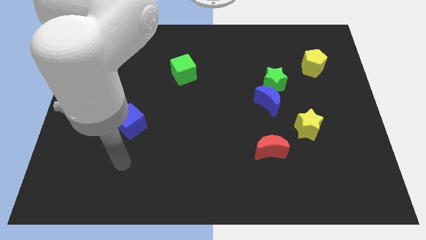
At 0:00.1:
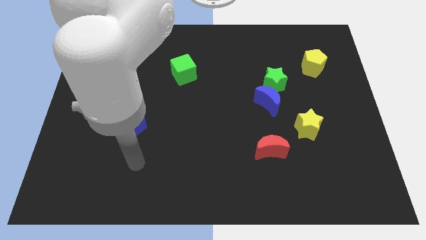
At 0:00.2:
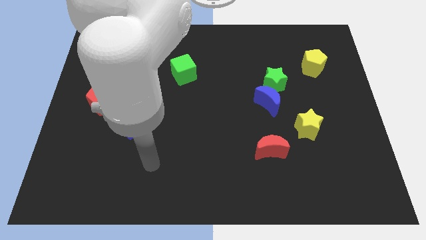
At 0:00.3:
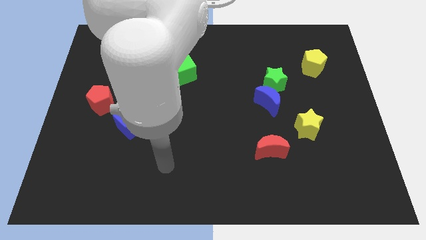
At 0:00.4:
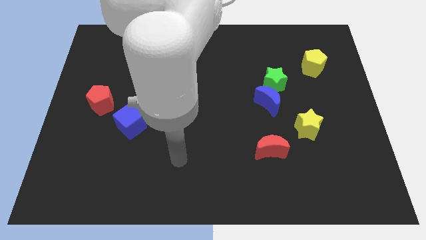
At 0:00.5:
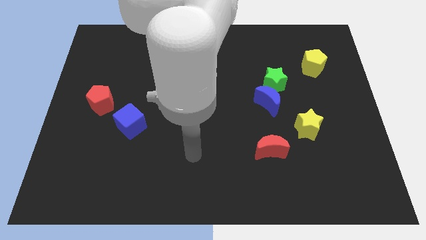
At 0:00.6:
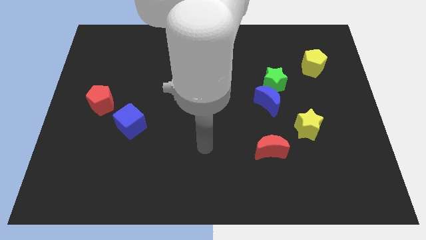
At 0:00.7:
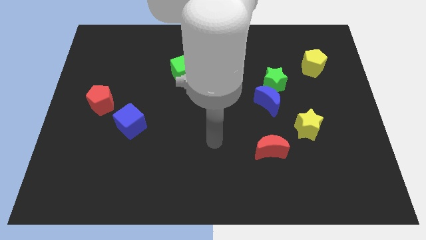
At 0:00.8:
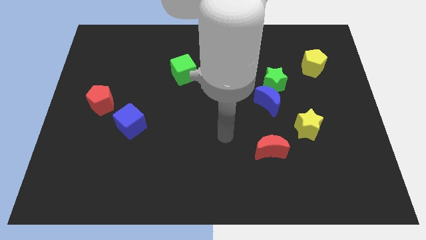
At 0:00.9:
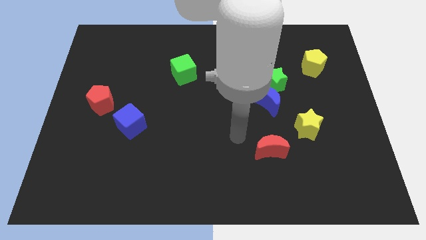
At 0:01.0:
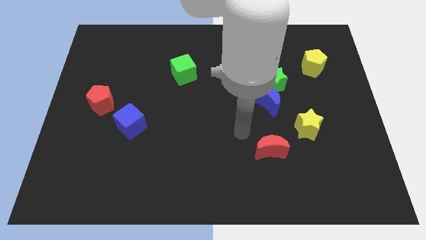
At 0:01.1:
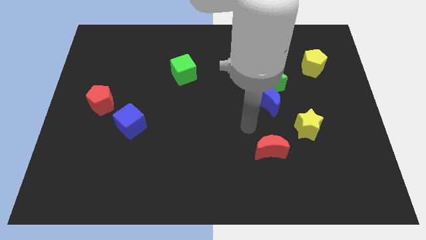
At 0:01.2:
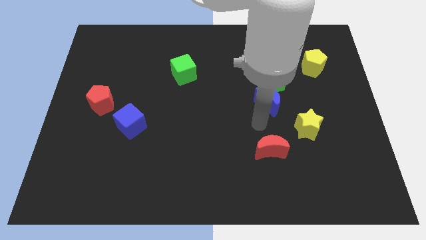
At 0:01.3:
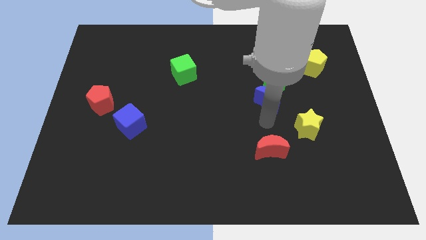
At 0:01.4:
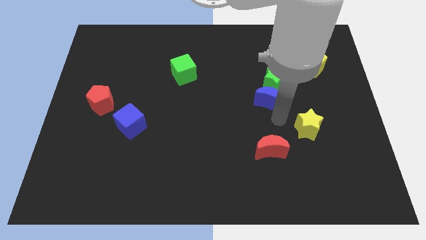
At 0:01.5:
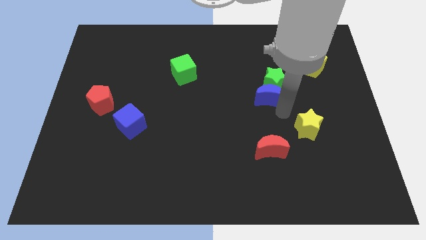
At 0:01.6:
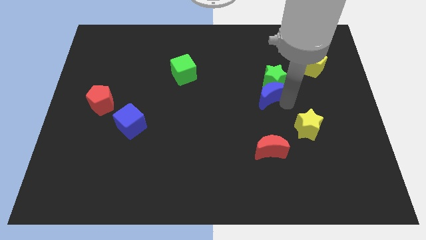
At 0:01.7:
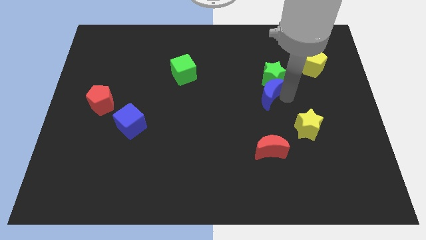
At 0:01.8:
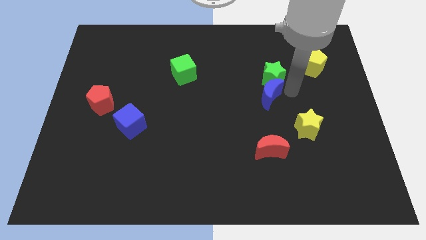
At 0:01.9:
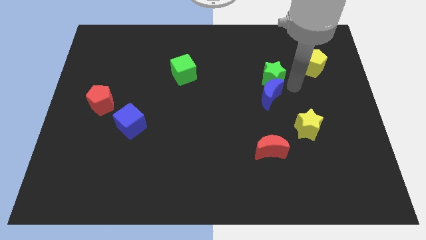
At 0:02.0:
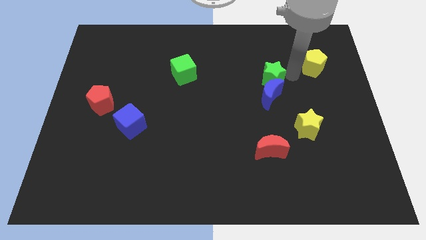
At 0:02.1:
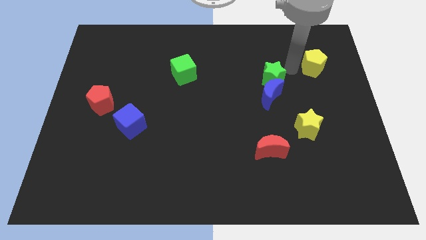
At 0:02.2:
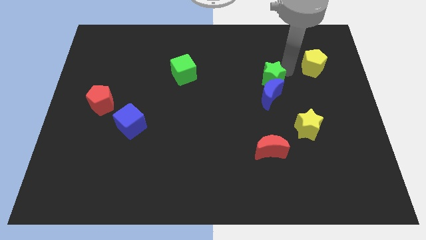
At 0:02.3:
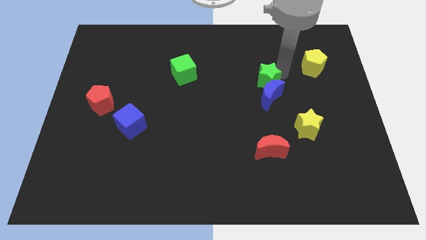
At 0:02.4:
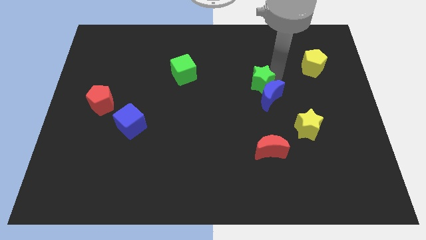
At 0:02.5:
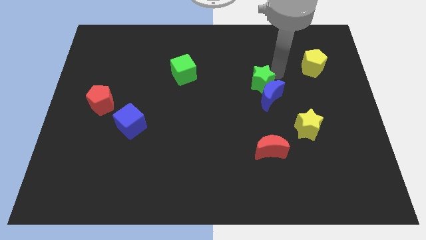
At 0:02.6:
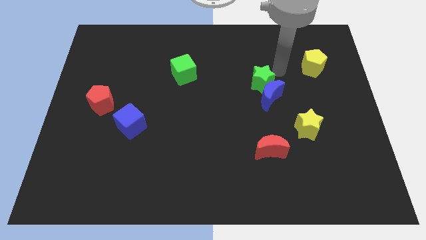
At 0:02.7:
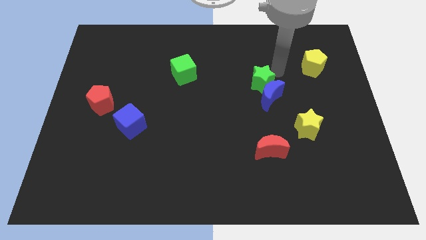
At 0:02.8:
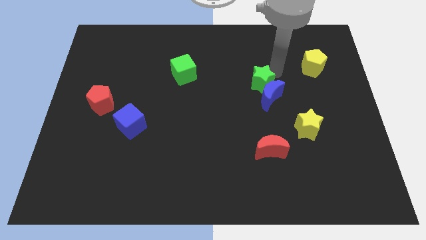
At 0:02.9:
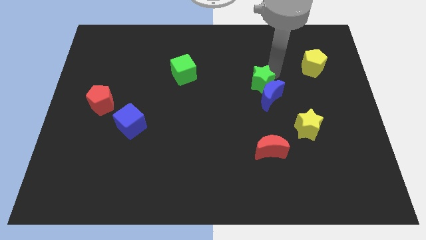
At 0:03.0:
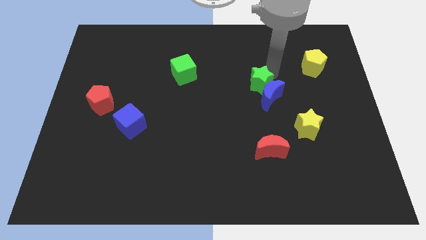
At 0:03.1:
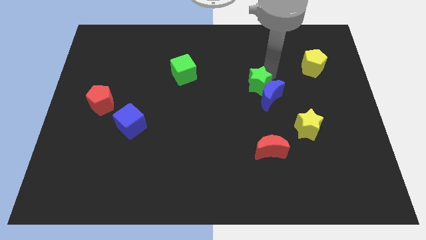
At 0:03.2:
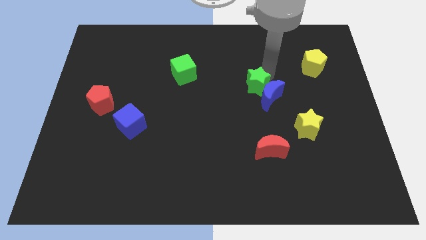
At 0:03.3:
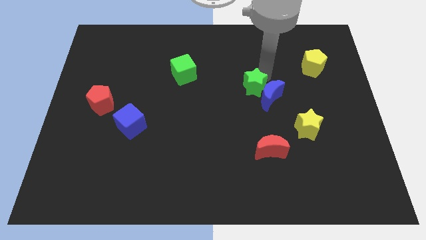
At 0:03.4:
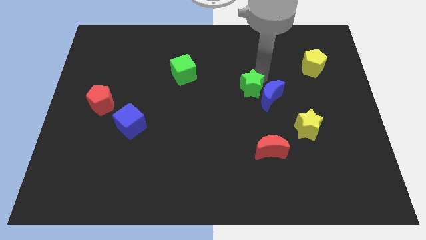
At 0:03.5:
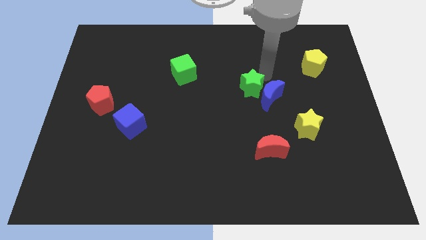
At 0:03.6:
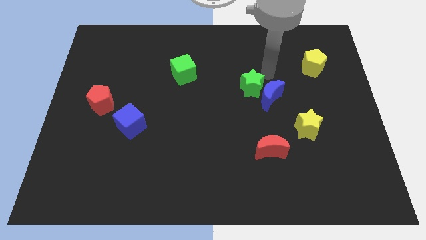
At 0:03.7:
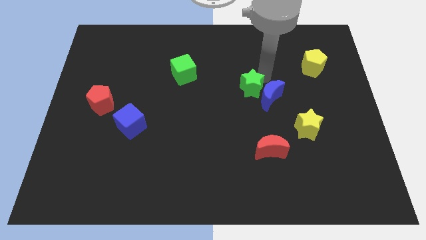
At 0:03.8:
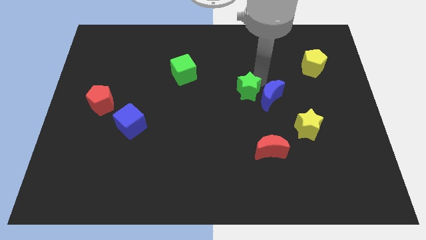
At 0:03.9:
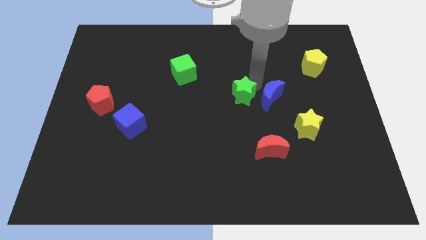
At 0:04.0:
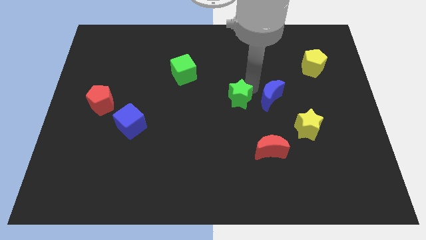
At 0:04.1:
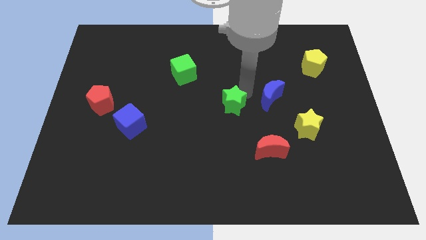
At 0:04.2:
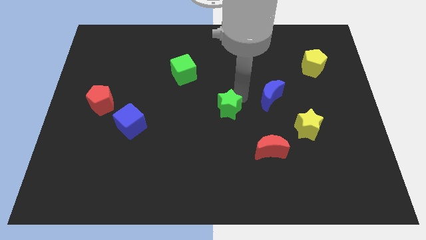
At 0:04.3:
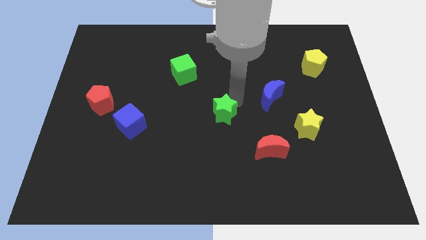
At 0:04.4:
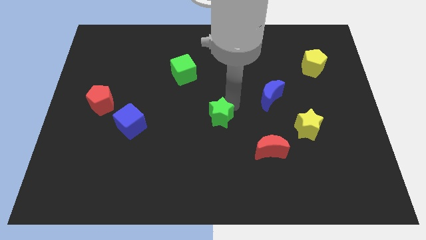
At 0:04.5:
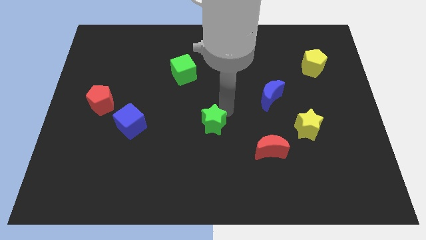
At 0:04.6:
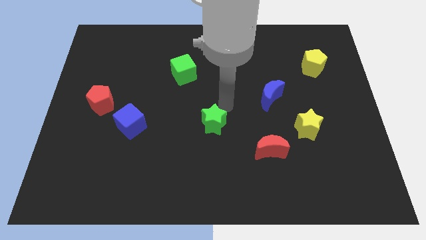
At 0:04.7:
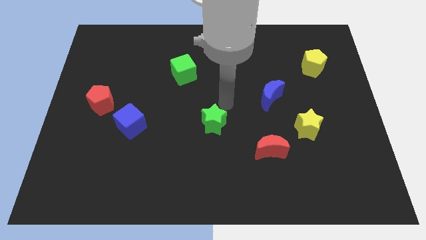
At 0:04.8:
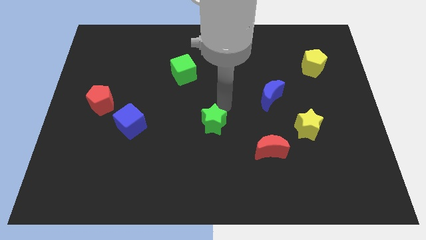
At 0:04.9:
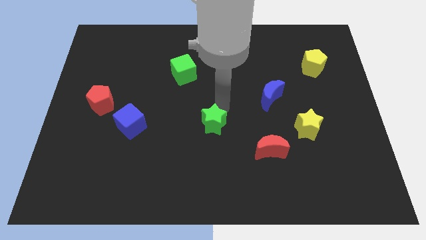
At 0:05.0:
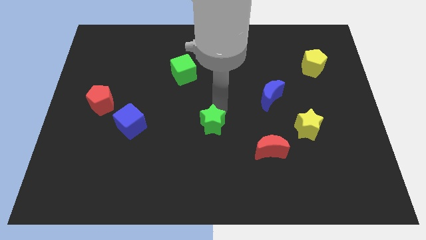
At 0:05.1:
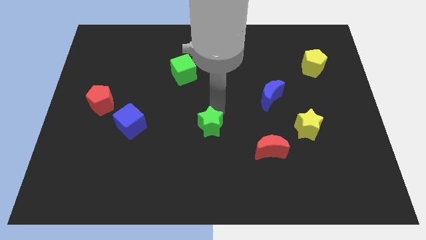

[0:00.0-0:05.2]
slide the green star down and left

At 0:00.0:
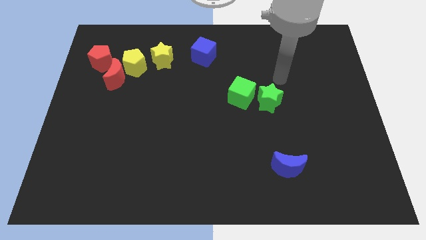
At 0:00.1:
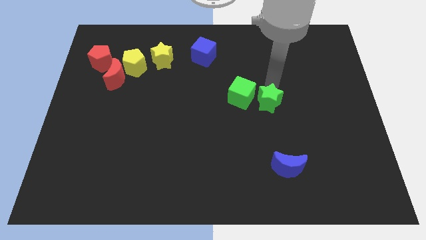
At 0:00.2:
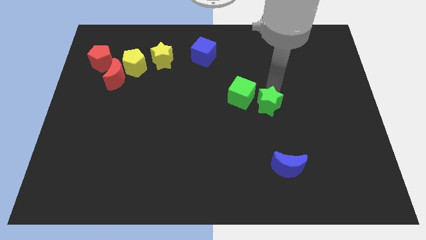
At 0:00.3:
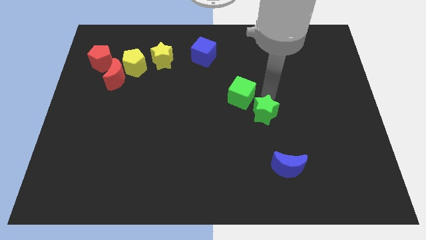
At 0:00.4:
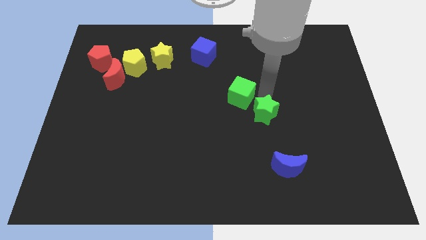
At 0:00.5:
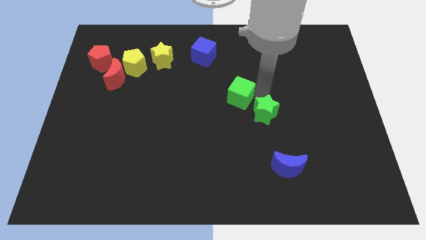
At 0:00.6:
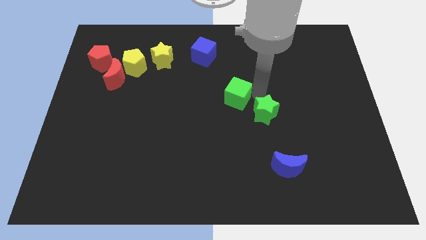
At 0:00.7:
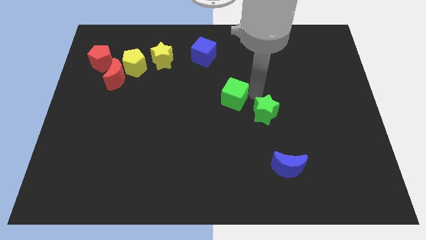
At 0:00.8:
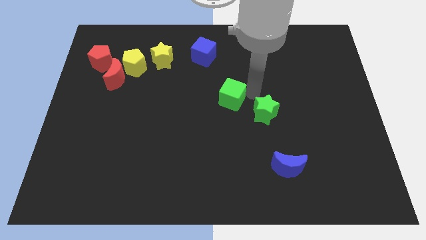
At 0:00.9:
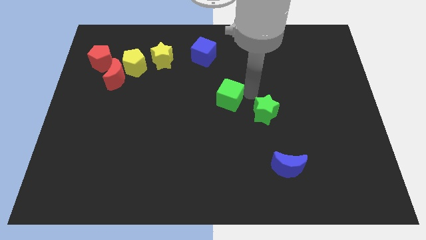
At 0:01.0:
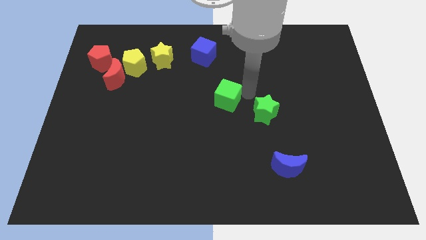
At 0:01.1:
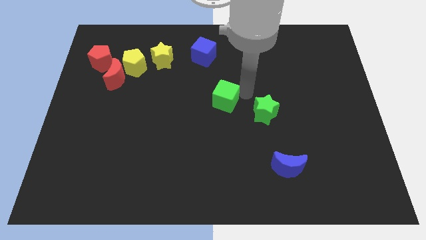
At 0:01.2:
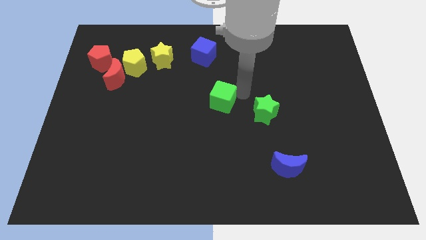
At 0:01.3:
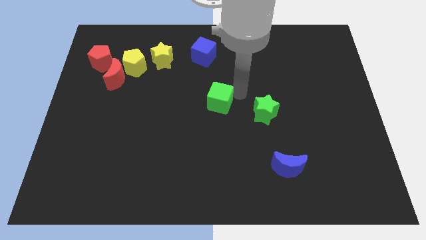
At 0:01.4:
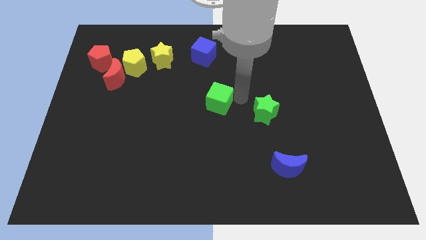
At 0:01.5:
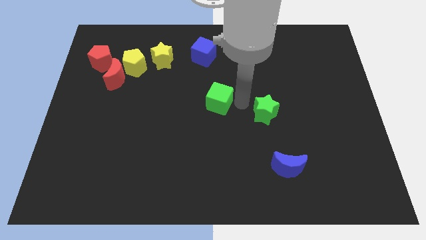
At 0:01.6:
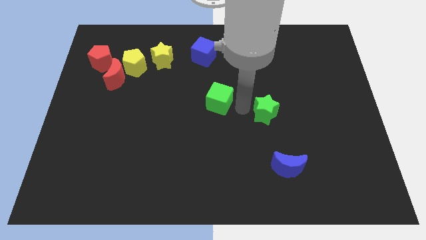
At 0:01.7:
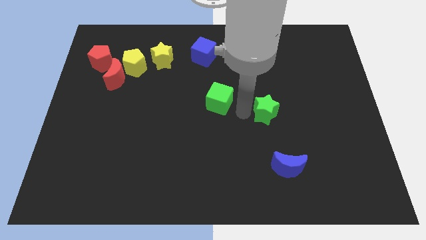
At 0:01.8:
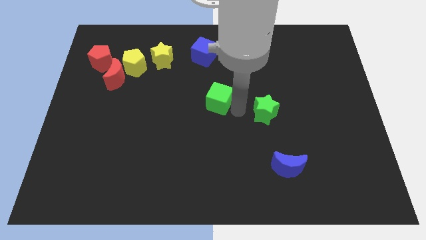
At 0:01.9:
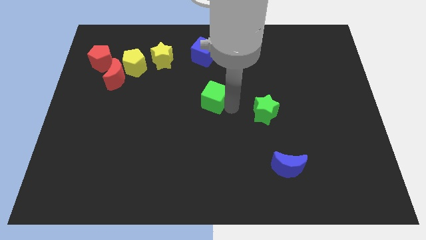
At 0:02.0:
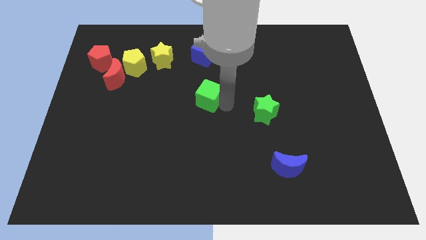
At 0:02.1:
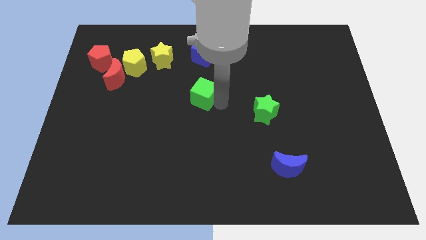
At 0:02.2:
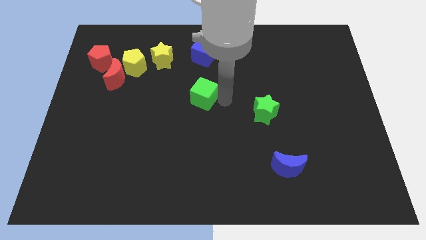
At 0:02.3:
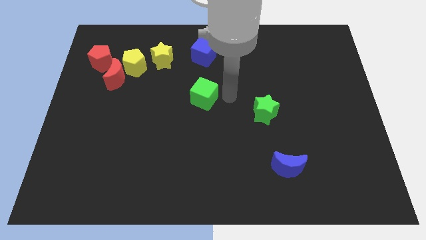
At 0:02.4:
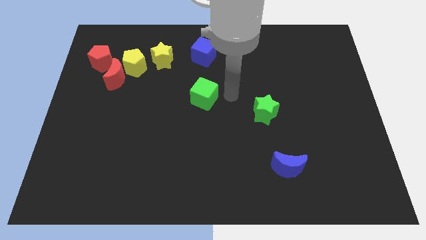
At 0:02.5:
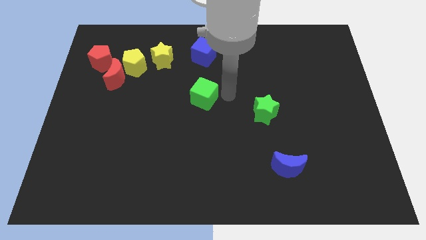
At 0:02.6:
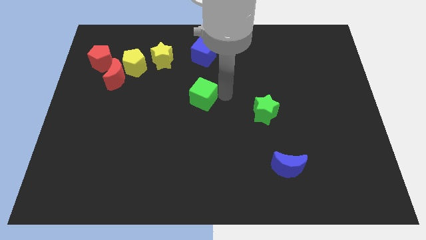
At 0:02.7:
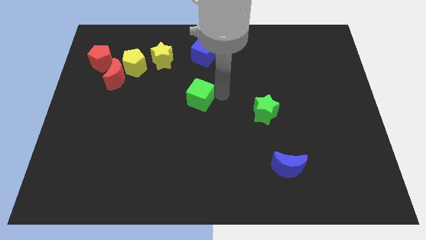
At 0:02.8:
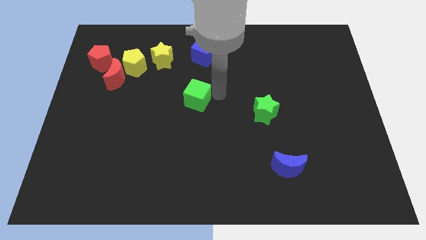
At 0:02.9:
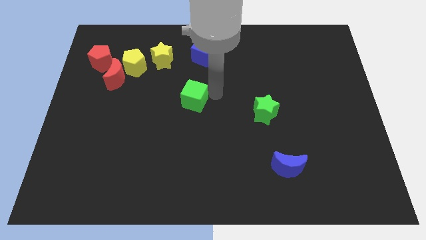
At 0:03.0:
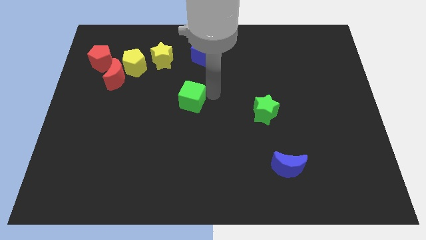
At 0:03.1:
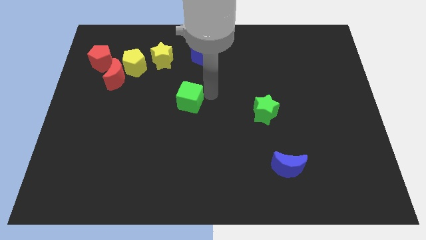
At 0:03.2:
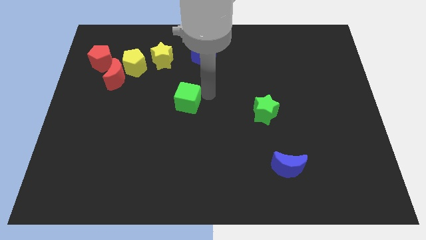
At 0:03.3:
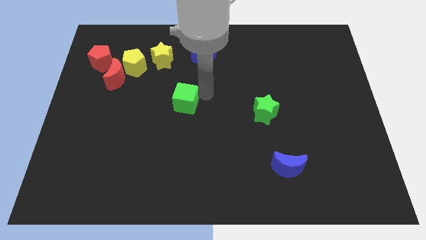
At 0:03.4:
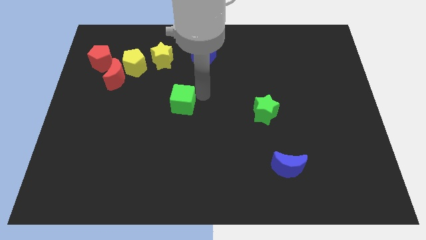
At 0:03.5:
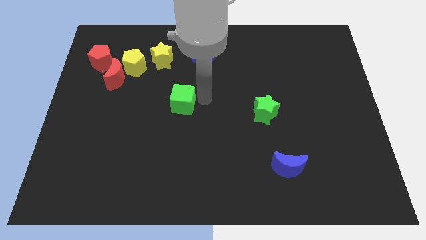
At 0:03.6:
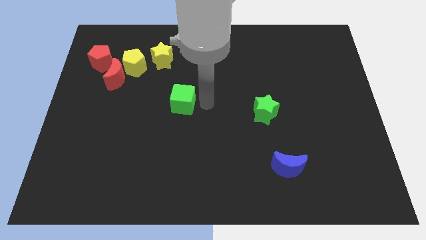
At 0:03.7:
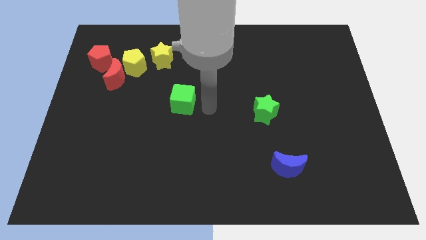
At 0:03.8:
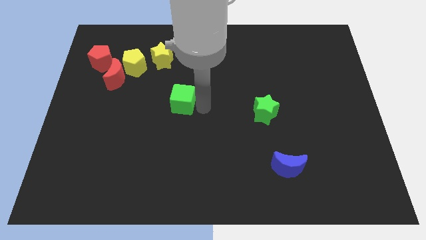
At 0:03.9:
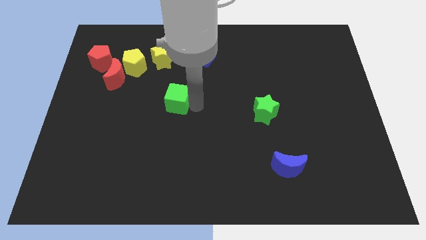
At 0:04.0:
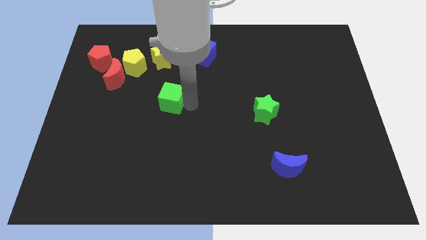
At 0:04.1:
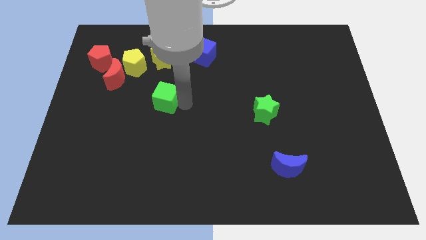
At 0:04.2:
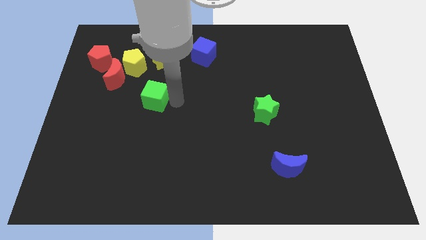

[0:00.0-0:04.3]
slide the green cube to the left
